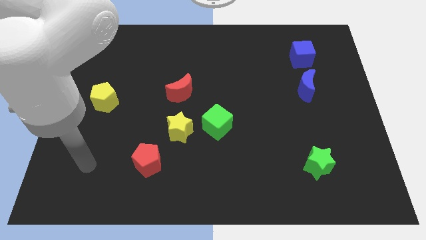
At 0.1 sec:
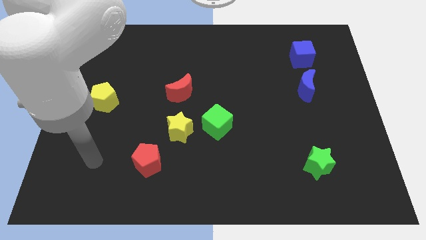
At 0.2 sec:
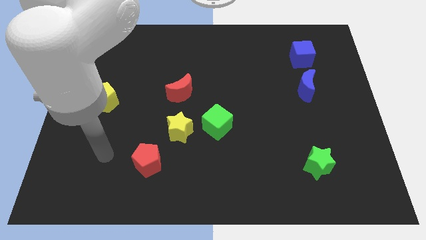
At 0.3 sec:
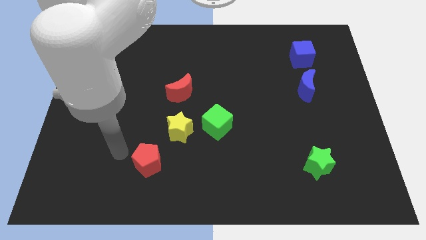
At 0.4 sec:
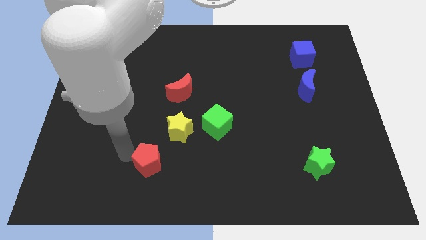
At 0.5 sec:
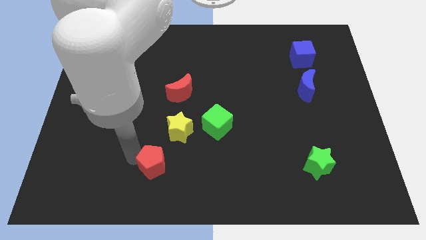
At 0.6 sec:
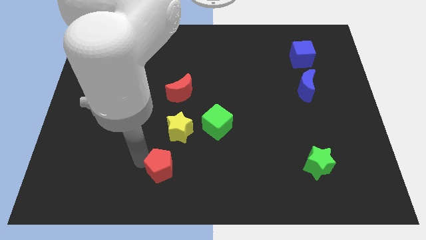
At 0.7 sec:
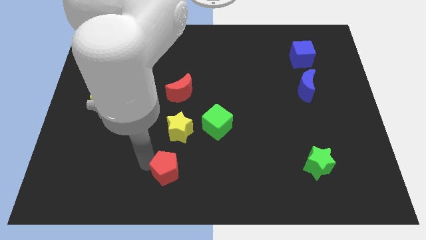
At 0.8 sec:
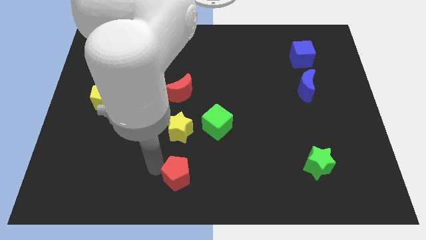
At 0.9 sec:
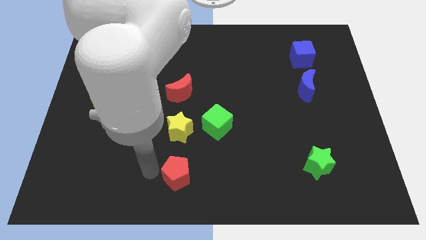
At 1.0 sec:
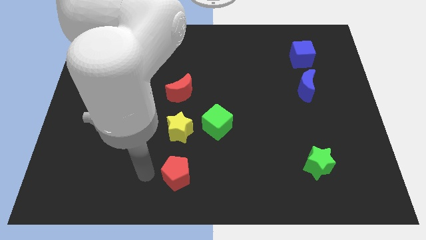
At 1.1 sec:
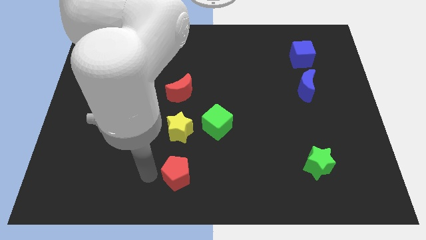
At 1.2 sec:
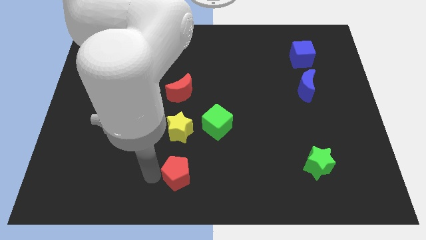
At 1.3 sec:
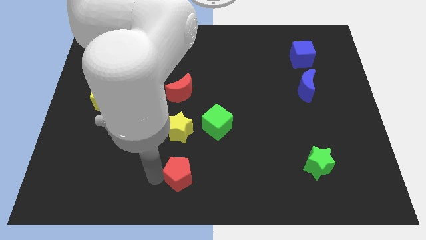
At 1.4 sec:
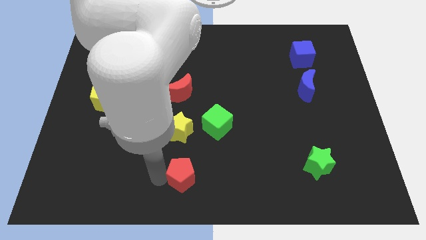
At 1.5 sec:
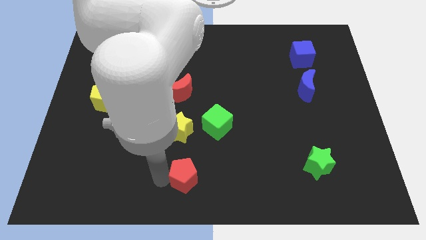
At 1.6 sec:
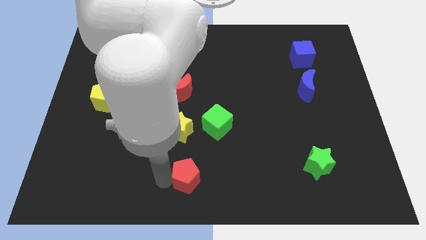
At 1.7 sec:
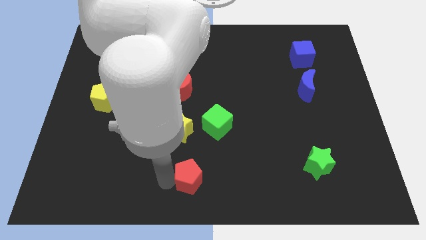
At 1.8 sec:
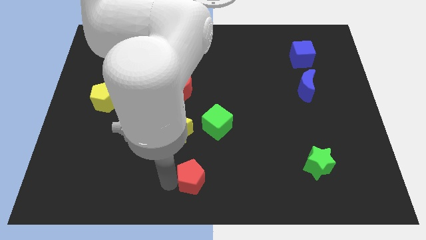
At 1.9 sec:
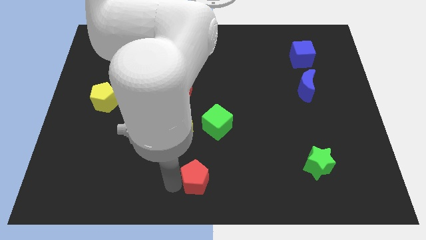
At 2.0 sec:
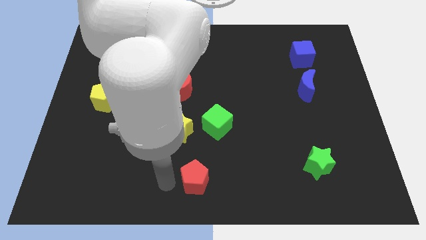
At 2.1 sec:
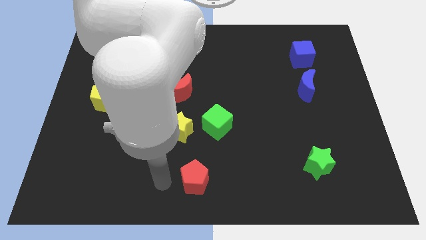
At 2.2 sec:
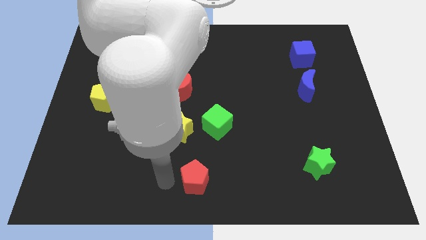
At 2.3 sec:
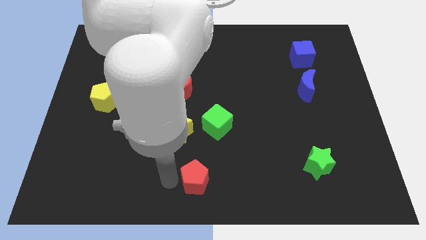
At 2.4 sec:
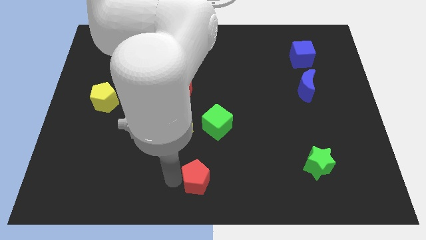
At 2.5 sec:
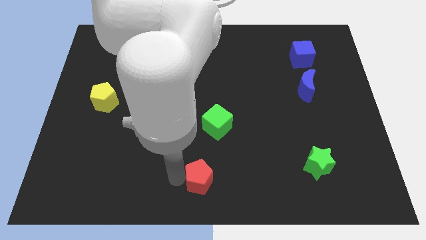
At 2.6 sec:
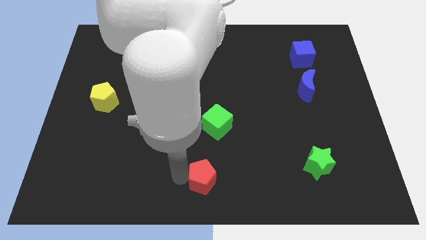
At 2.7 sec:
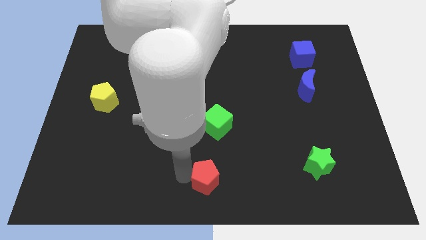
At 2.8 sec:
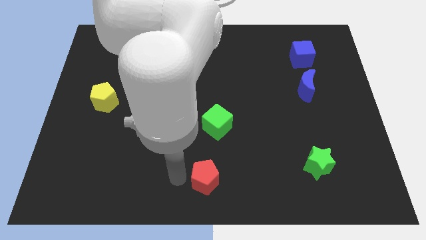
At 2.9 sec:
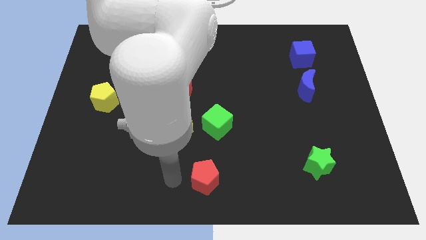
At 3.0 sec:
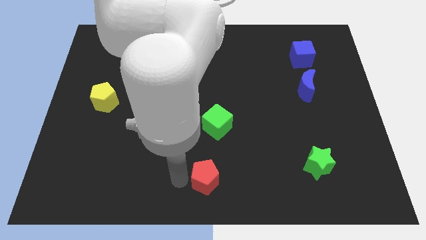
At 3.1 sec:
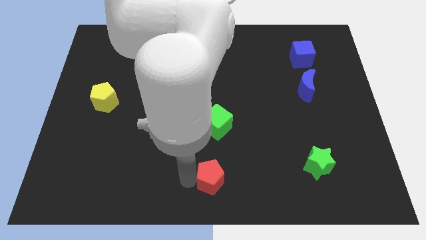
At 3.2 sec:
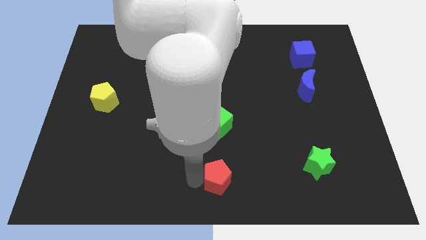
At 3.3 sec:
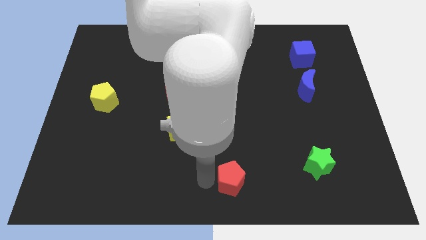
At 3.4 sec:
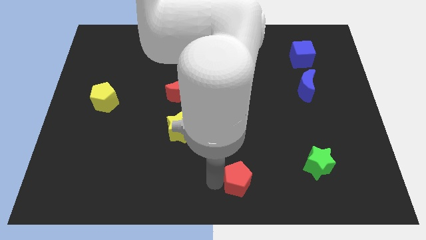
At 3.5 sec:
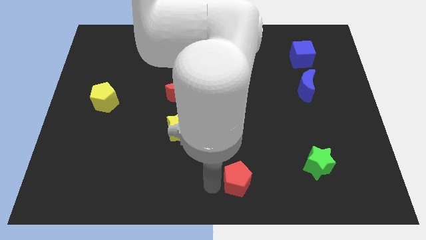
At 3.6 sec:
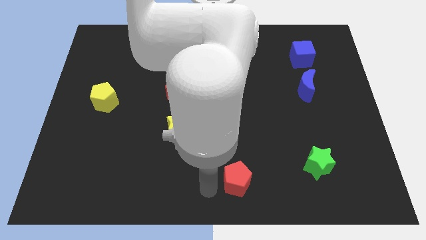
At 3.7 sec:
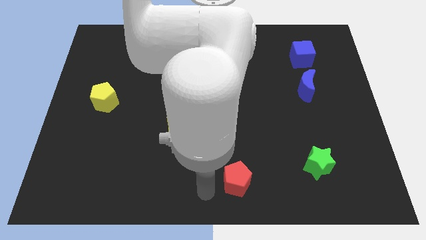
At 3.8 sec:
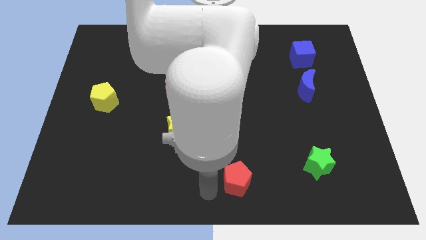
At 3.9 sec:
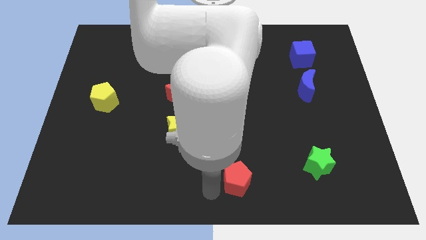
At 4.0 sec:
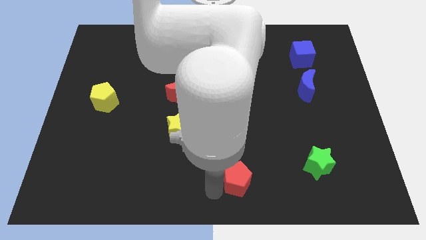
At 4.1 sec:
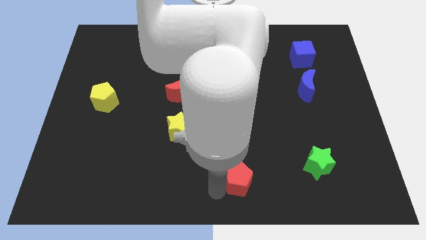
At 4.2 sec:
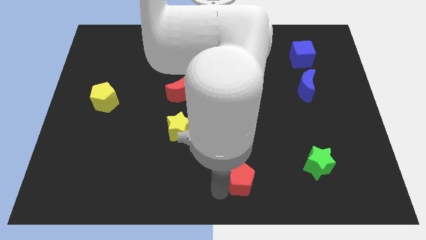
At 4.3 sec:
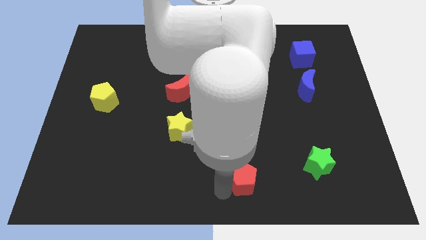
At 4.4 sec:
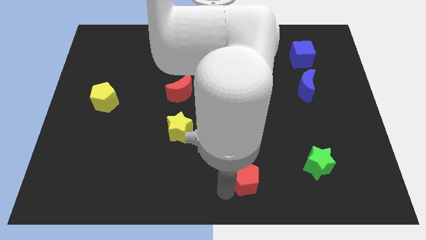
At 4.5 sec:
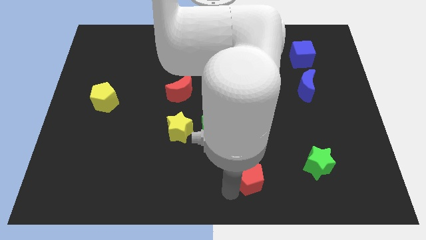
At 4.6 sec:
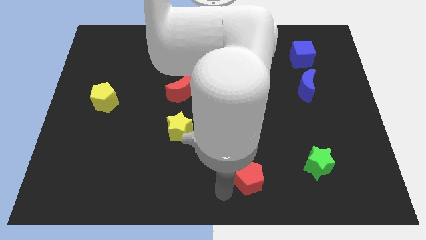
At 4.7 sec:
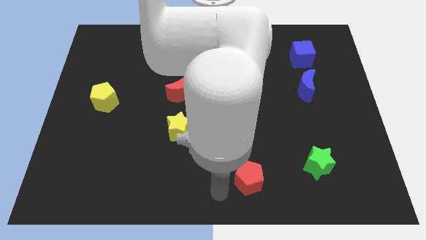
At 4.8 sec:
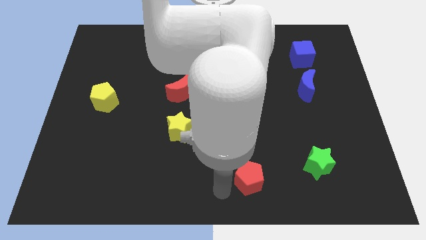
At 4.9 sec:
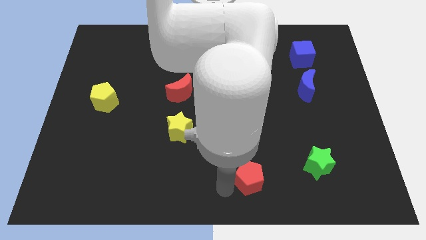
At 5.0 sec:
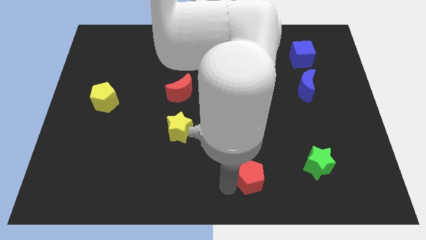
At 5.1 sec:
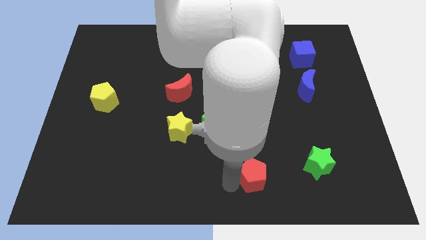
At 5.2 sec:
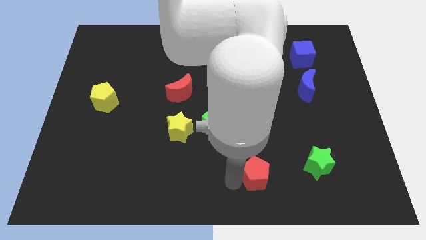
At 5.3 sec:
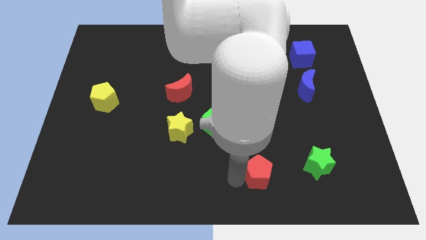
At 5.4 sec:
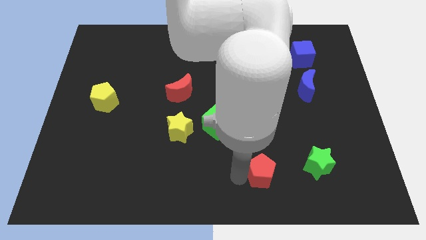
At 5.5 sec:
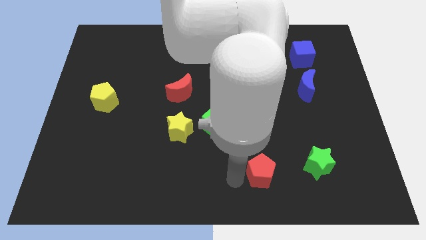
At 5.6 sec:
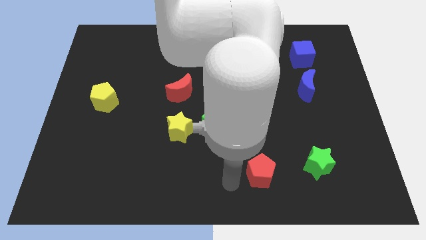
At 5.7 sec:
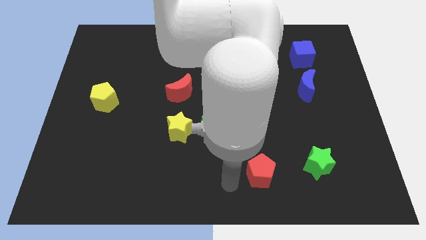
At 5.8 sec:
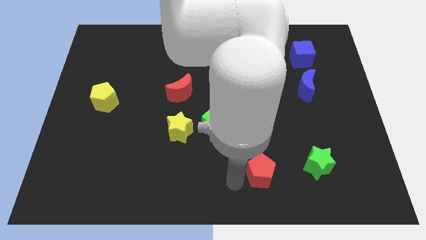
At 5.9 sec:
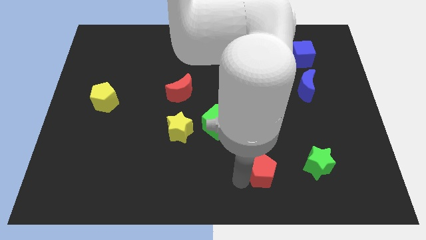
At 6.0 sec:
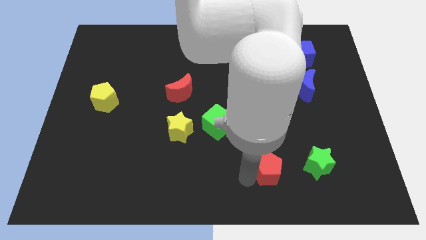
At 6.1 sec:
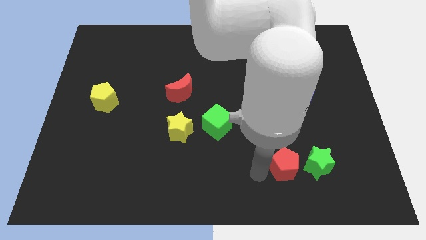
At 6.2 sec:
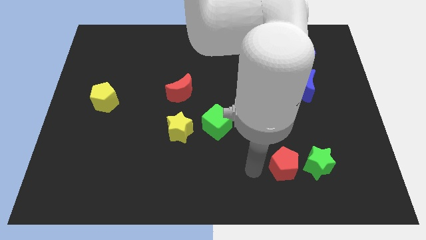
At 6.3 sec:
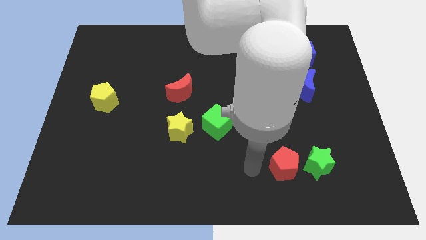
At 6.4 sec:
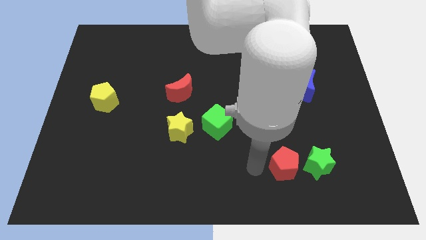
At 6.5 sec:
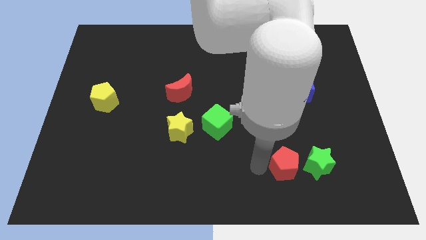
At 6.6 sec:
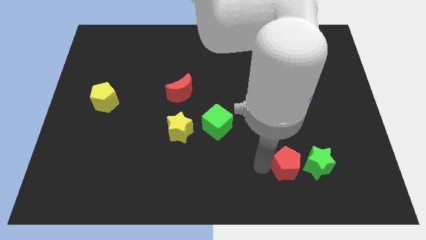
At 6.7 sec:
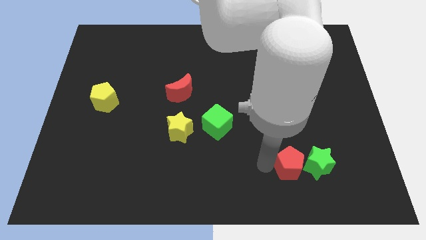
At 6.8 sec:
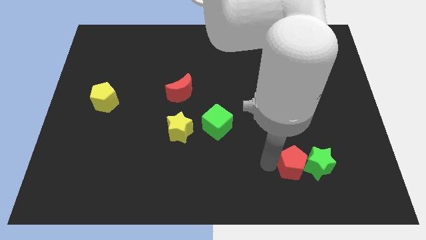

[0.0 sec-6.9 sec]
slide the red pentagon to the green star

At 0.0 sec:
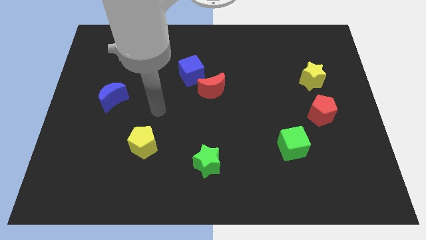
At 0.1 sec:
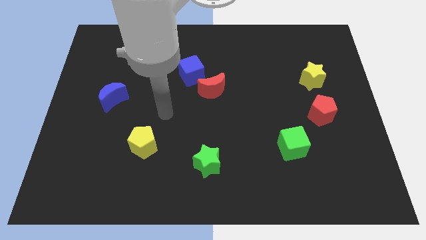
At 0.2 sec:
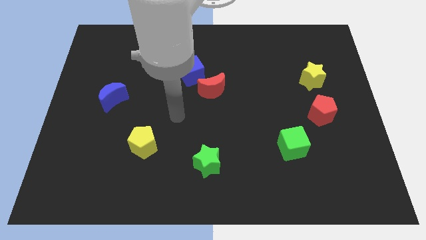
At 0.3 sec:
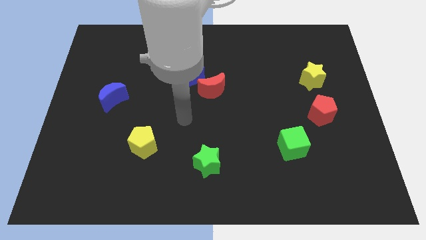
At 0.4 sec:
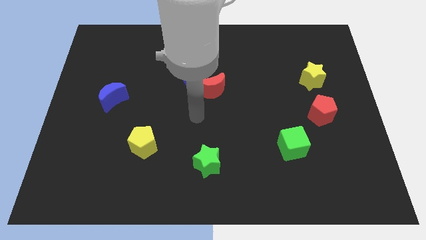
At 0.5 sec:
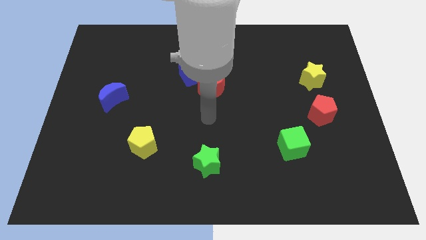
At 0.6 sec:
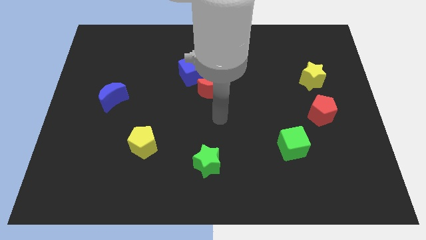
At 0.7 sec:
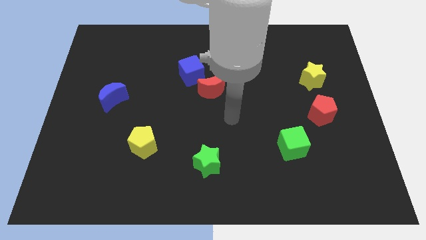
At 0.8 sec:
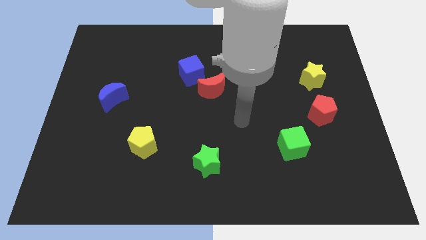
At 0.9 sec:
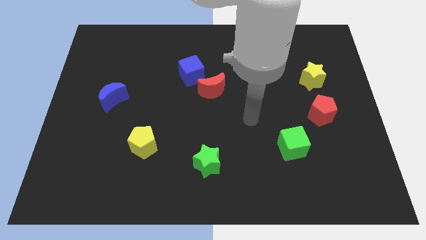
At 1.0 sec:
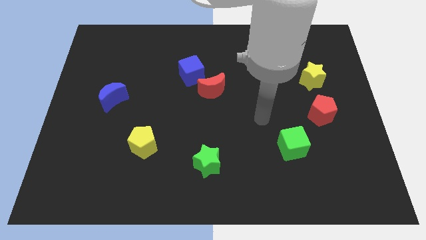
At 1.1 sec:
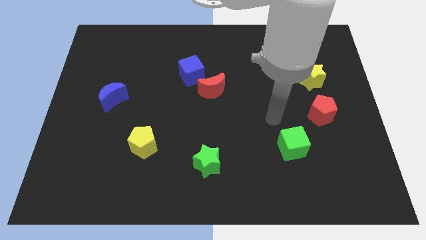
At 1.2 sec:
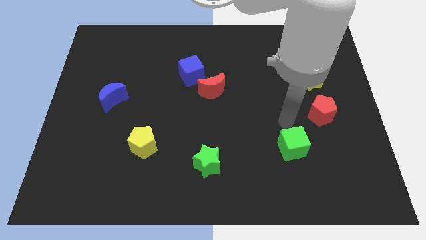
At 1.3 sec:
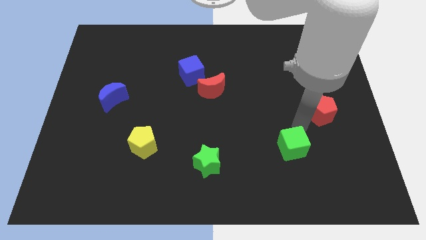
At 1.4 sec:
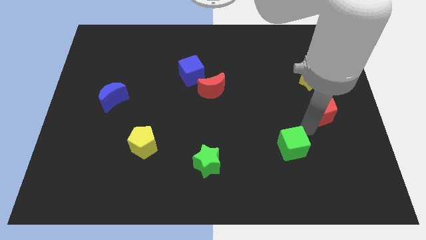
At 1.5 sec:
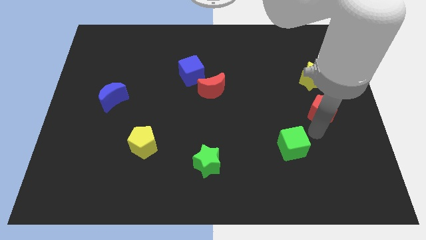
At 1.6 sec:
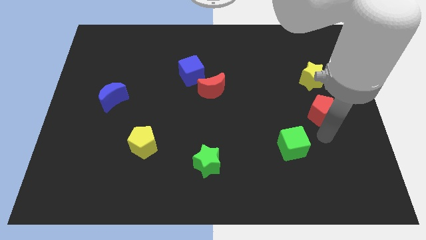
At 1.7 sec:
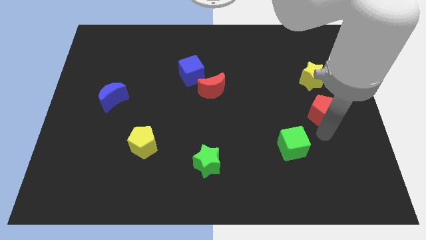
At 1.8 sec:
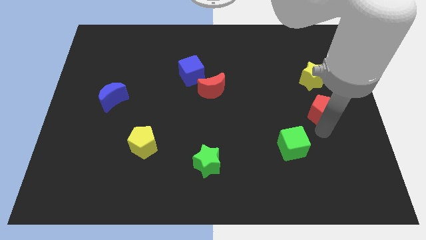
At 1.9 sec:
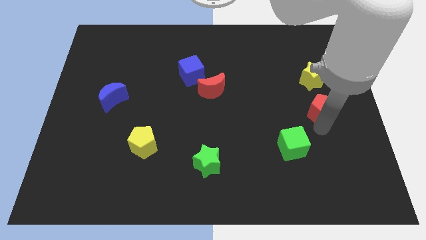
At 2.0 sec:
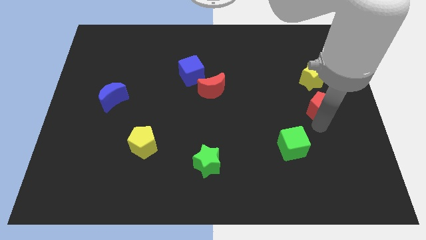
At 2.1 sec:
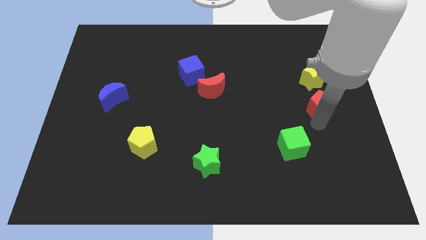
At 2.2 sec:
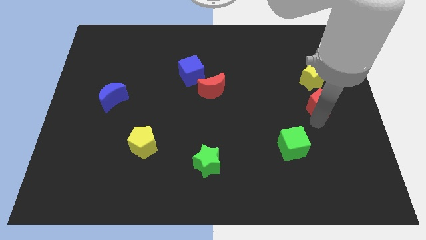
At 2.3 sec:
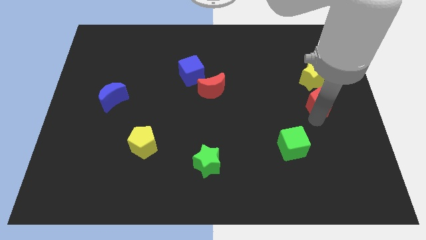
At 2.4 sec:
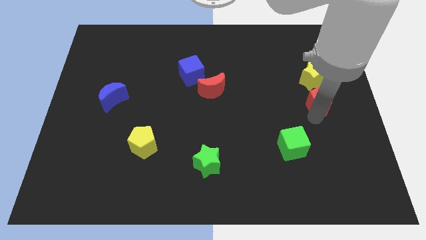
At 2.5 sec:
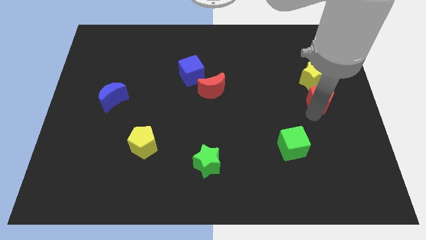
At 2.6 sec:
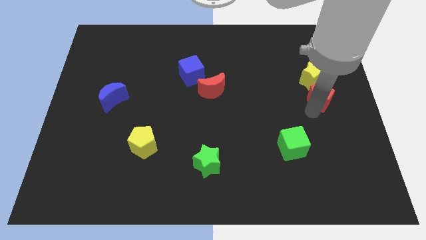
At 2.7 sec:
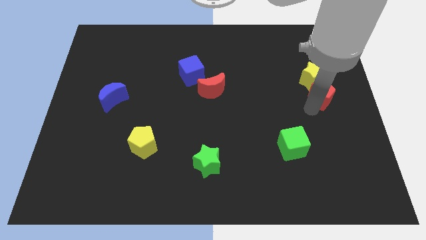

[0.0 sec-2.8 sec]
slide the red pentagon to the yellow star
